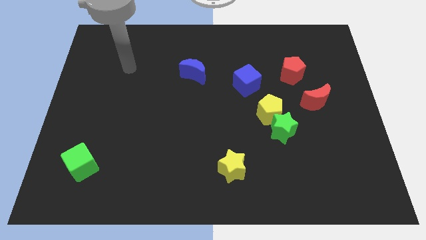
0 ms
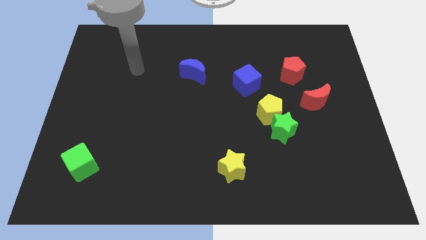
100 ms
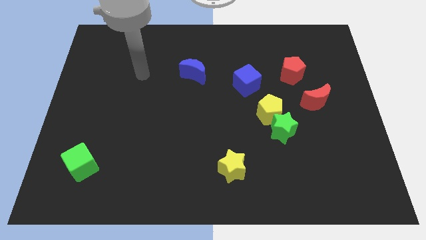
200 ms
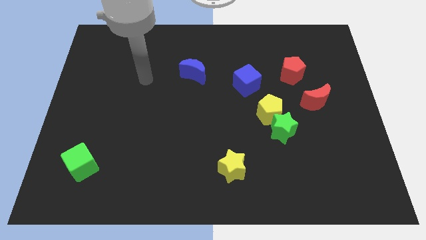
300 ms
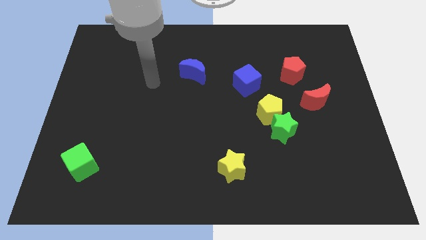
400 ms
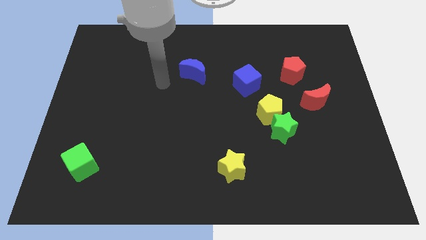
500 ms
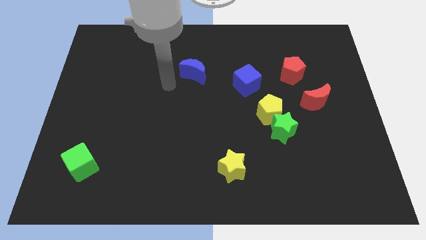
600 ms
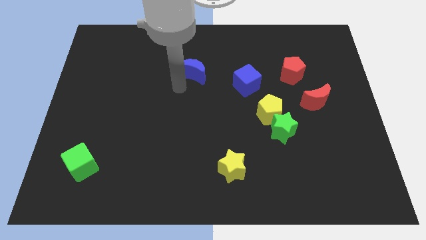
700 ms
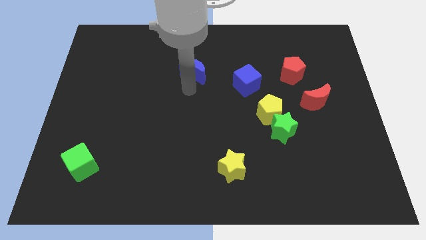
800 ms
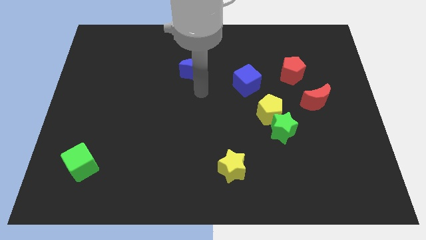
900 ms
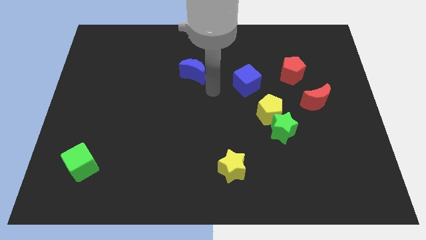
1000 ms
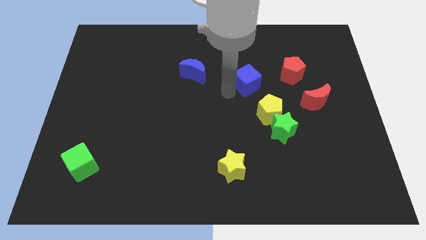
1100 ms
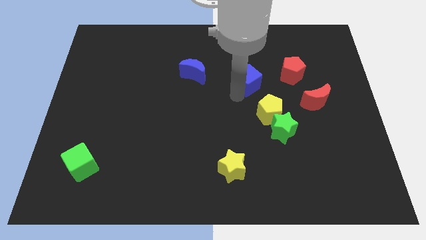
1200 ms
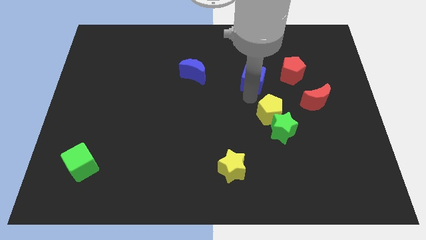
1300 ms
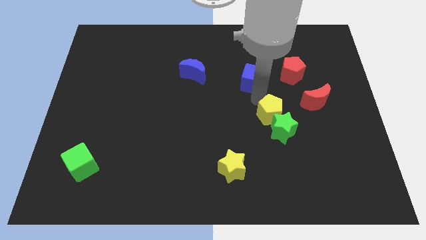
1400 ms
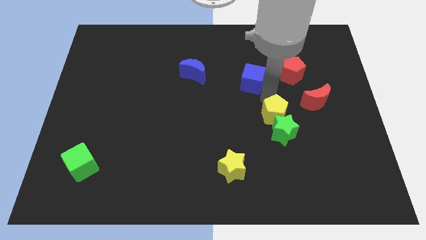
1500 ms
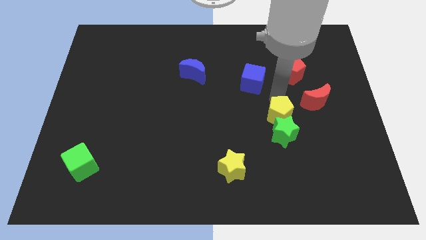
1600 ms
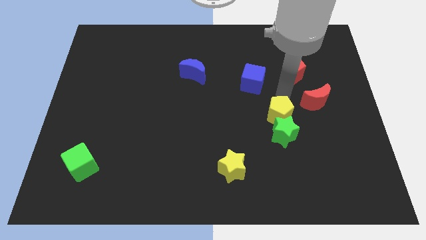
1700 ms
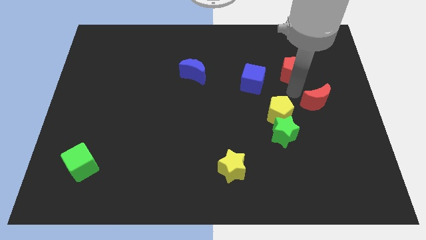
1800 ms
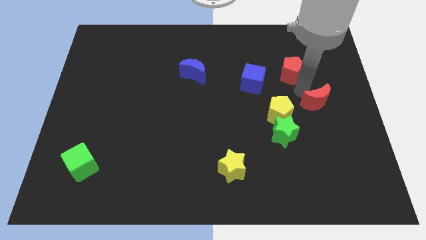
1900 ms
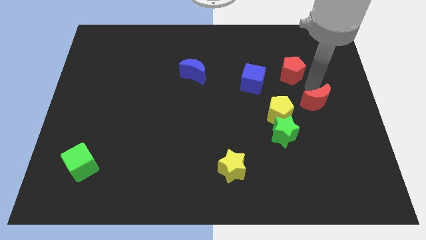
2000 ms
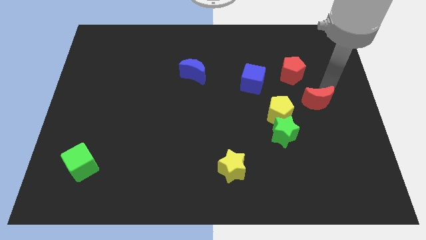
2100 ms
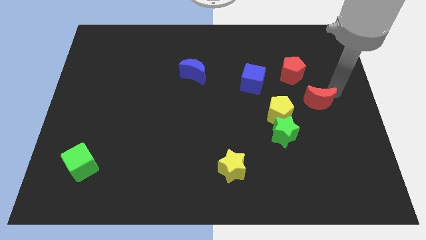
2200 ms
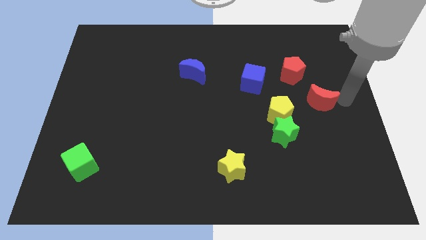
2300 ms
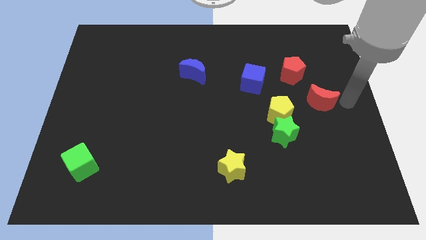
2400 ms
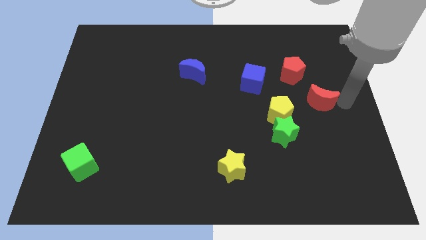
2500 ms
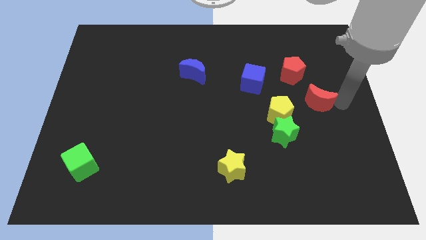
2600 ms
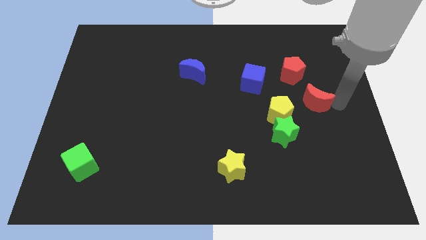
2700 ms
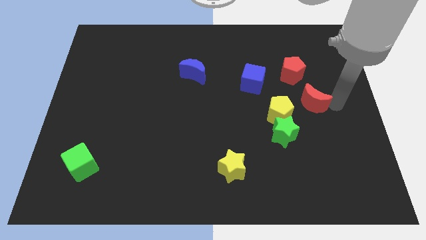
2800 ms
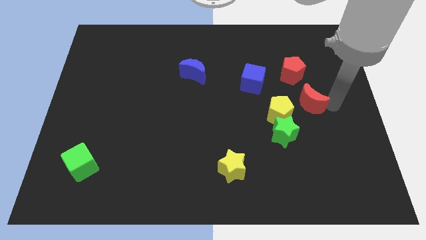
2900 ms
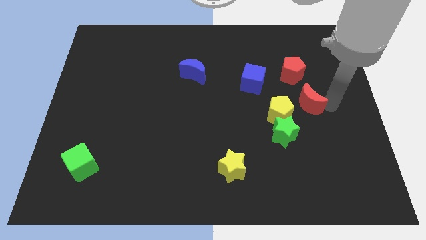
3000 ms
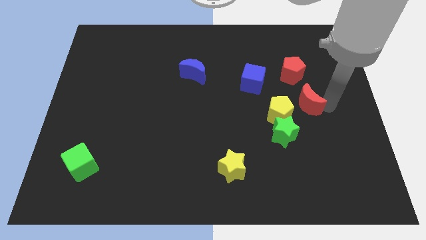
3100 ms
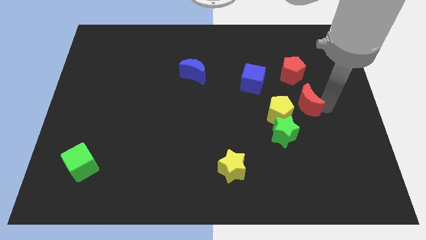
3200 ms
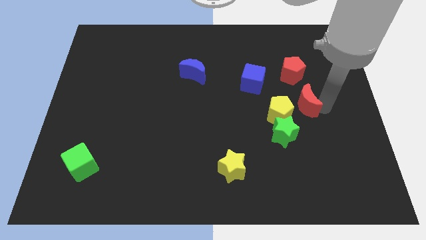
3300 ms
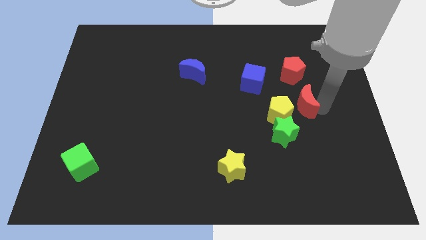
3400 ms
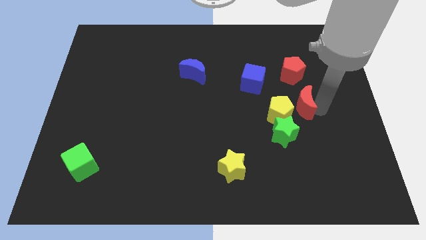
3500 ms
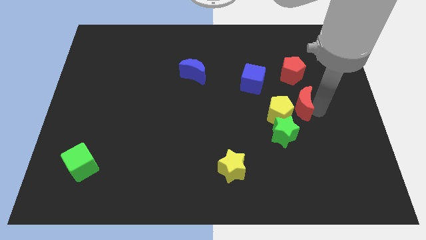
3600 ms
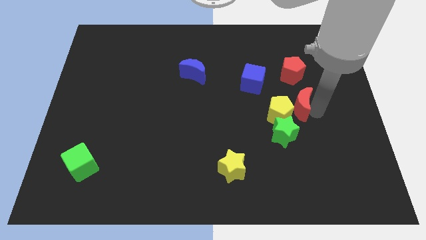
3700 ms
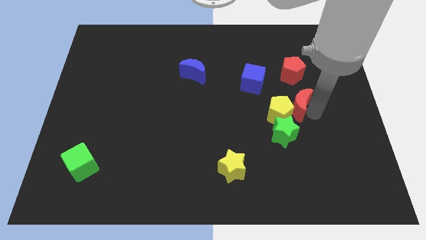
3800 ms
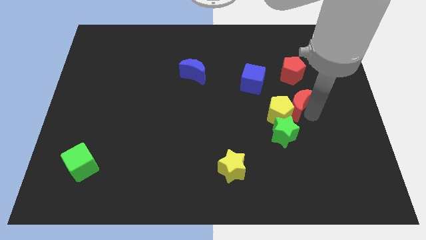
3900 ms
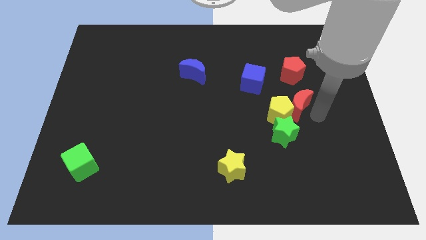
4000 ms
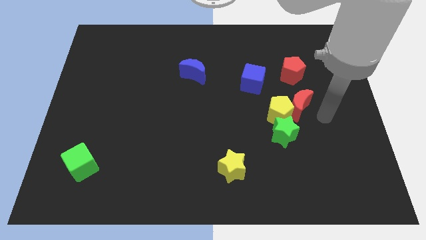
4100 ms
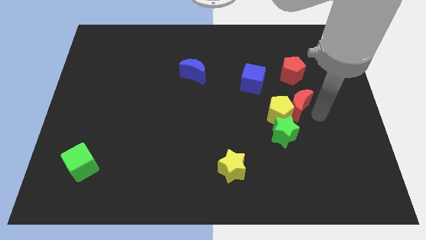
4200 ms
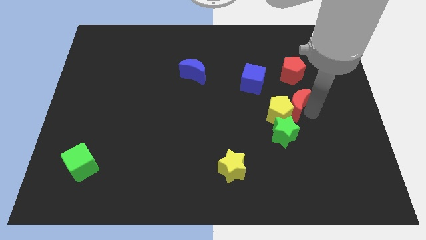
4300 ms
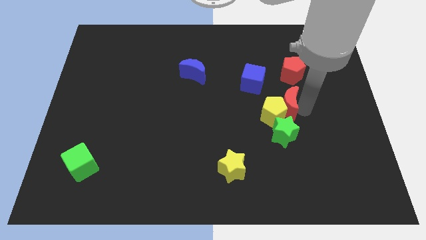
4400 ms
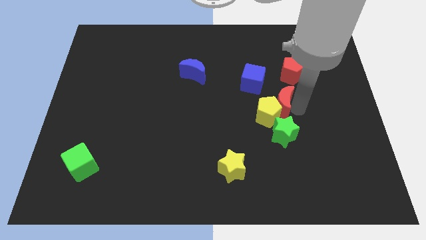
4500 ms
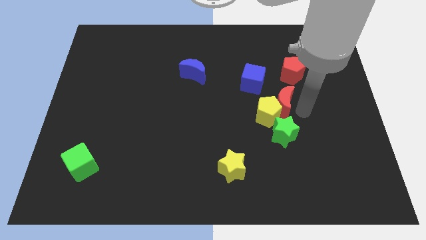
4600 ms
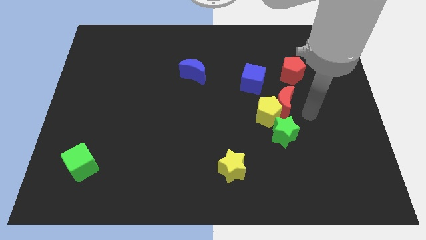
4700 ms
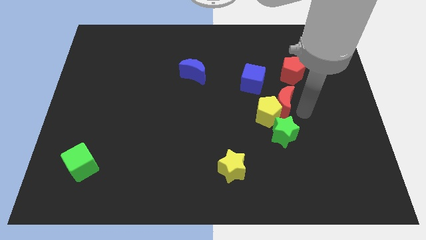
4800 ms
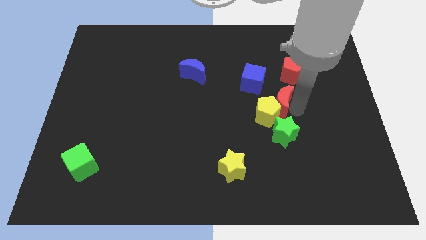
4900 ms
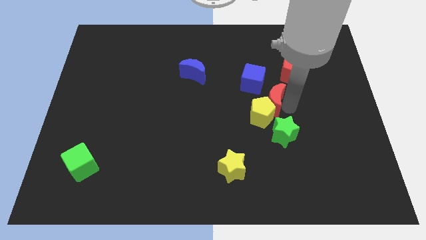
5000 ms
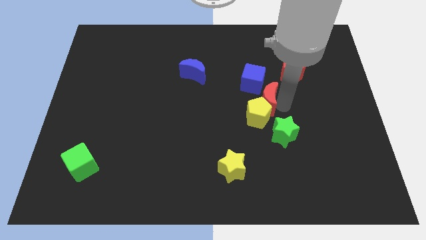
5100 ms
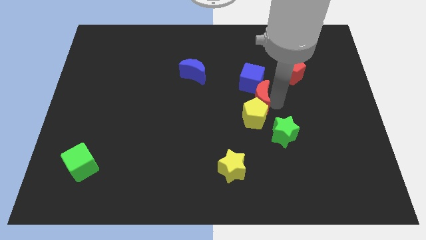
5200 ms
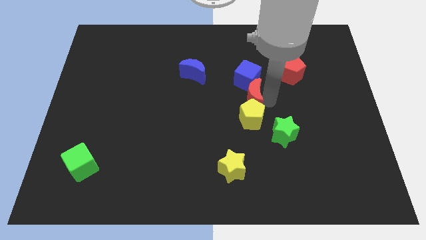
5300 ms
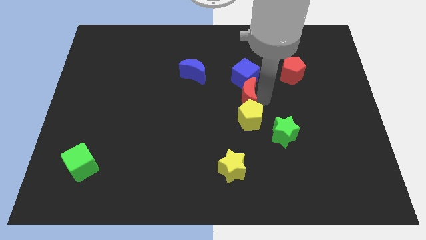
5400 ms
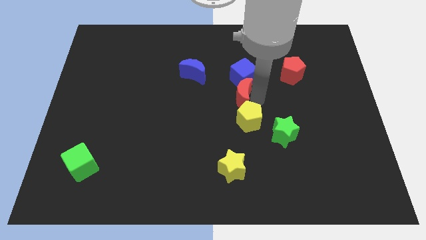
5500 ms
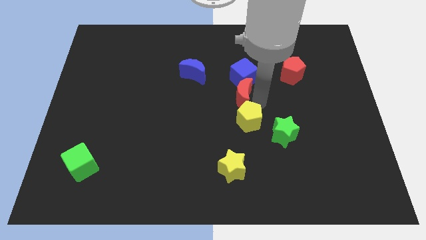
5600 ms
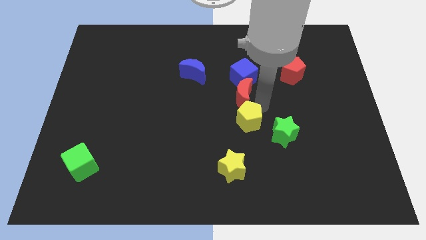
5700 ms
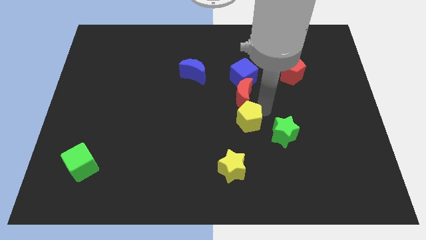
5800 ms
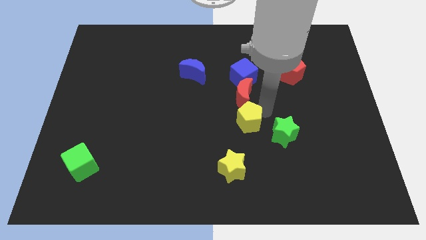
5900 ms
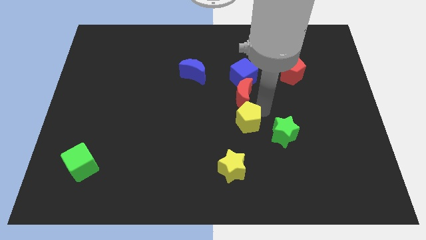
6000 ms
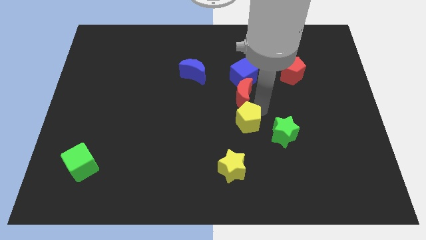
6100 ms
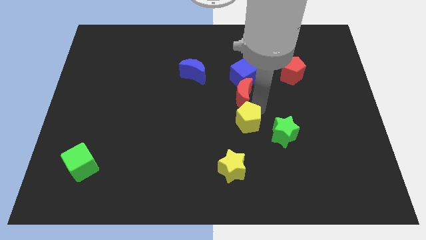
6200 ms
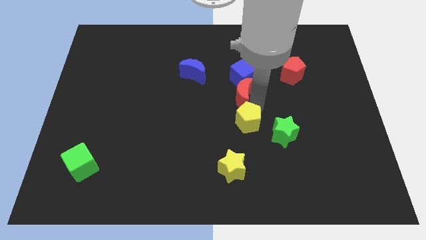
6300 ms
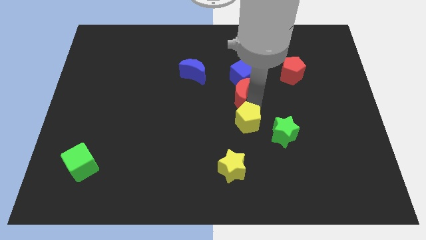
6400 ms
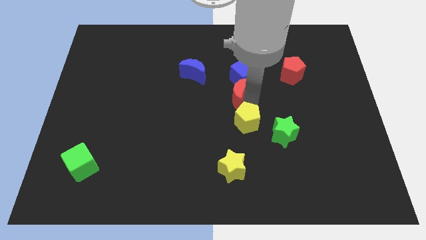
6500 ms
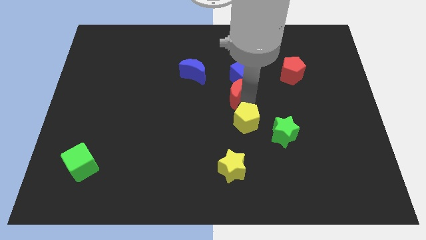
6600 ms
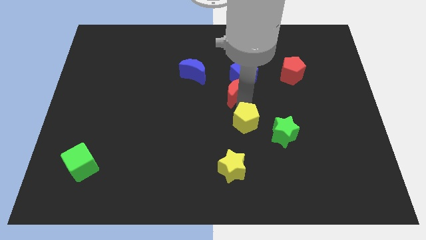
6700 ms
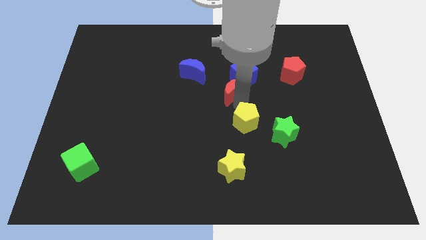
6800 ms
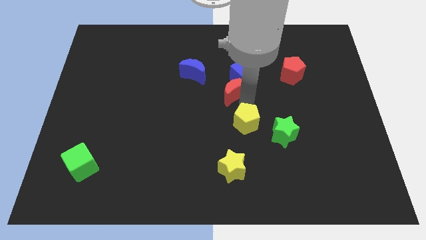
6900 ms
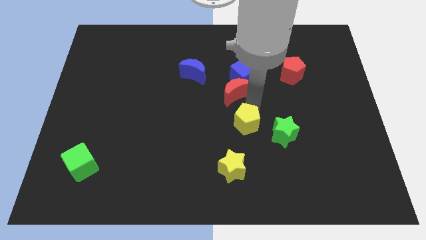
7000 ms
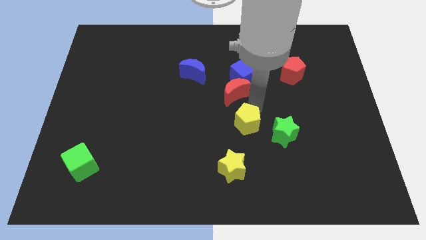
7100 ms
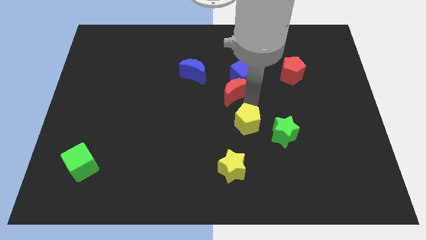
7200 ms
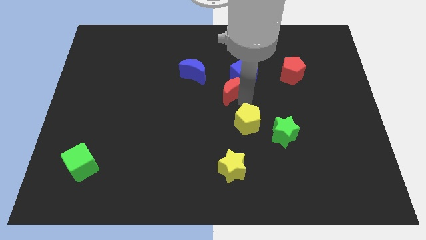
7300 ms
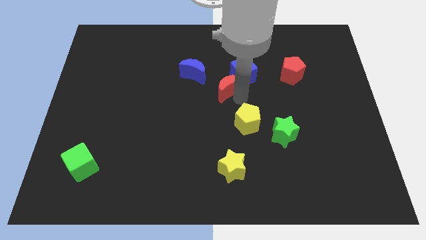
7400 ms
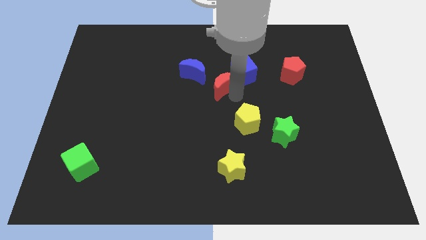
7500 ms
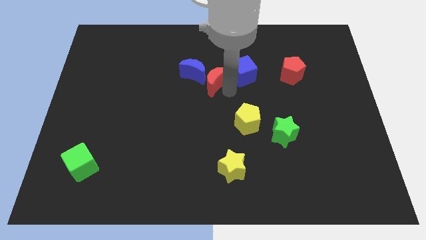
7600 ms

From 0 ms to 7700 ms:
slide the red moon to the blue moon
